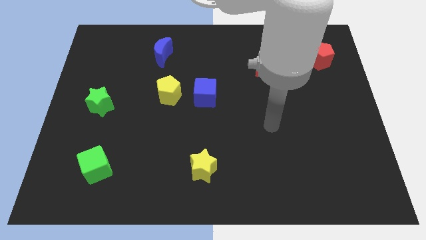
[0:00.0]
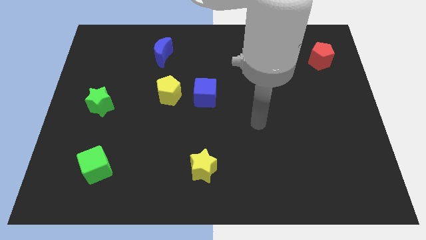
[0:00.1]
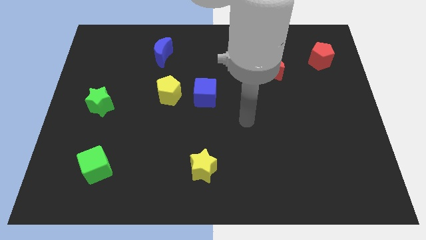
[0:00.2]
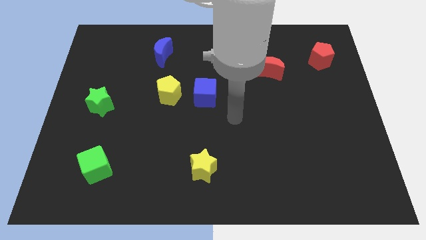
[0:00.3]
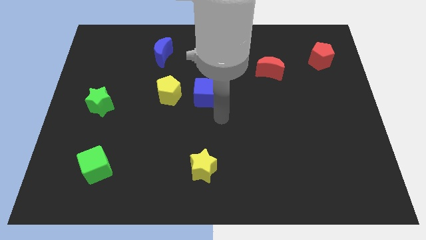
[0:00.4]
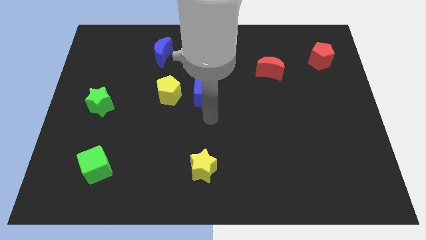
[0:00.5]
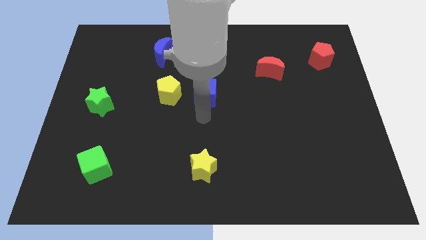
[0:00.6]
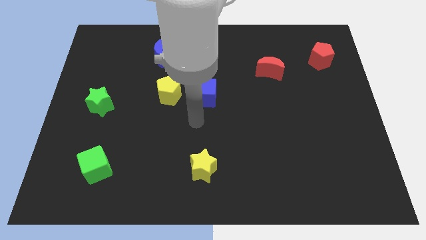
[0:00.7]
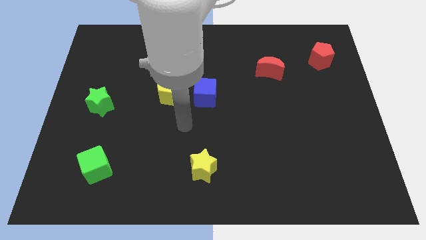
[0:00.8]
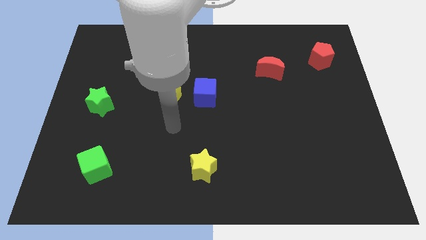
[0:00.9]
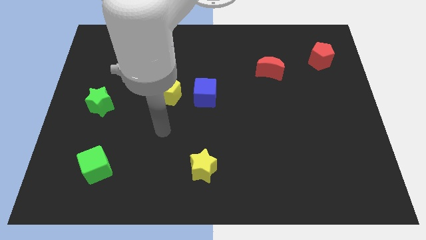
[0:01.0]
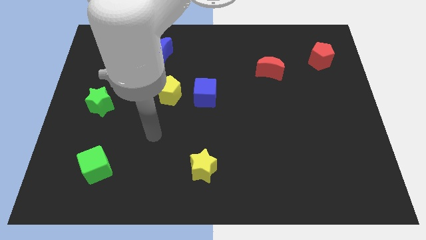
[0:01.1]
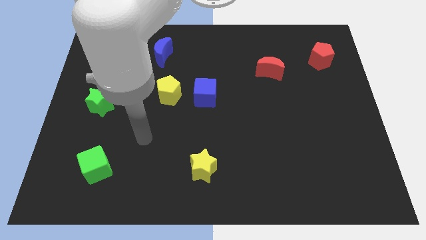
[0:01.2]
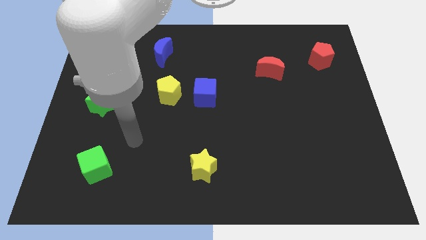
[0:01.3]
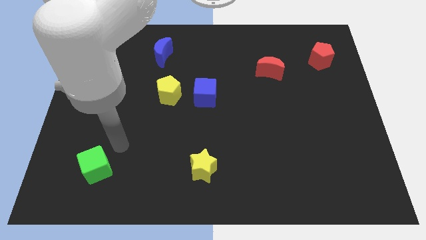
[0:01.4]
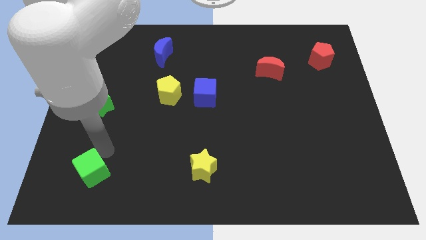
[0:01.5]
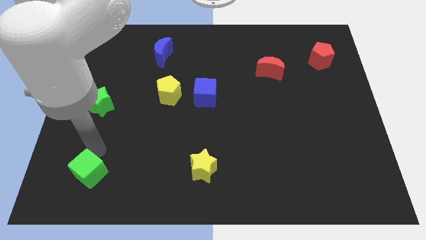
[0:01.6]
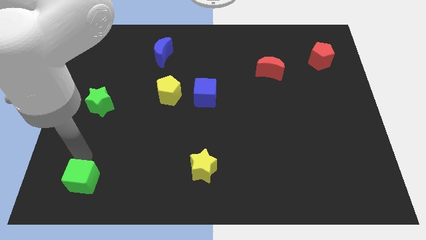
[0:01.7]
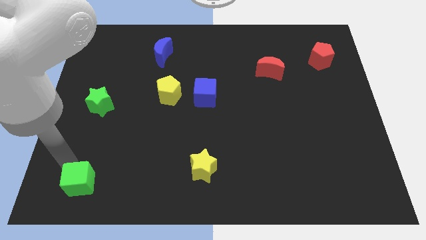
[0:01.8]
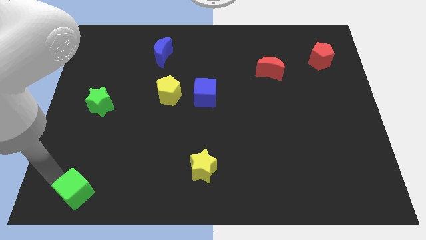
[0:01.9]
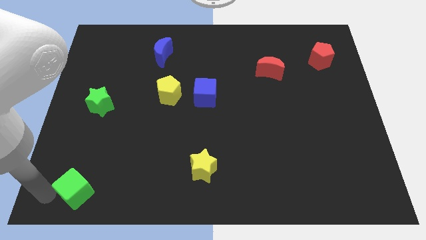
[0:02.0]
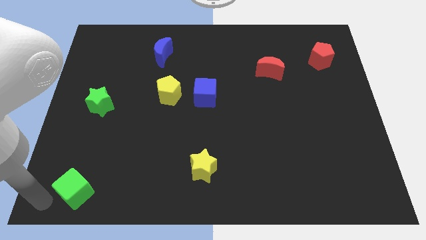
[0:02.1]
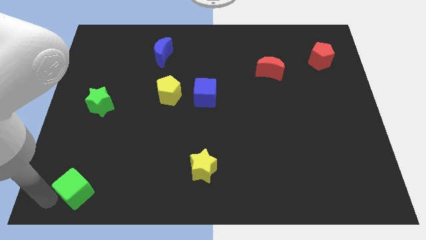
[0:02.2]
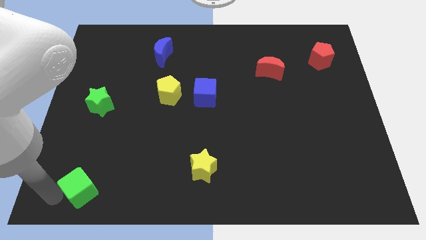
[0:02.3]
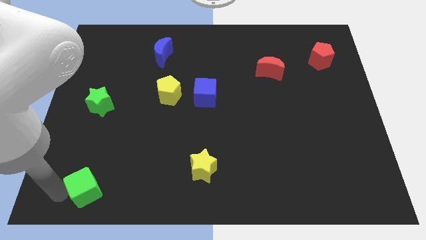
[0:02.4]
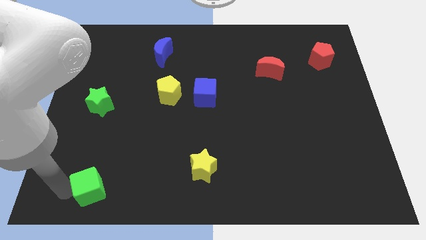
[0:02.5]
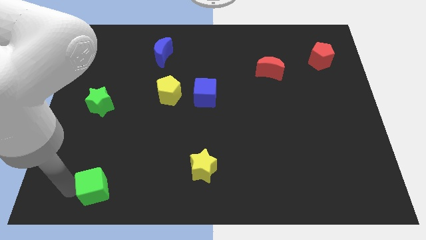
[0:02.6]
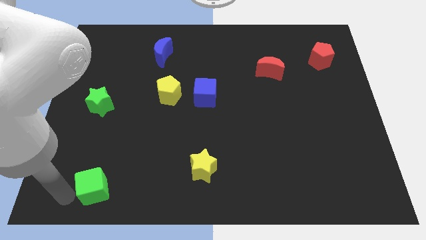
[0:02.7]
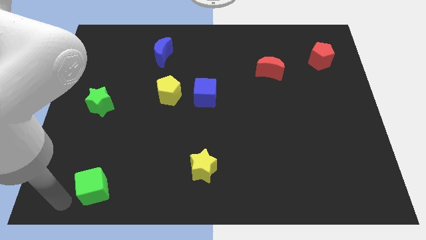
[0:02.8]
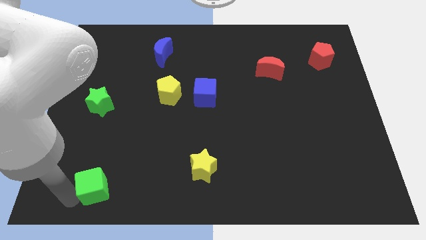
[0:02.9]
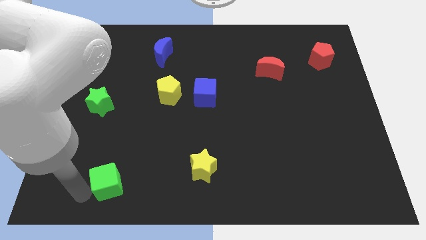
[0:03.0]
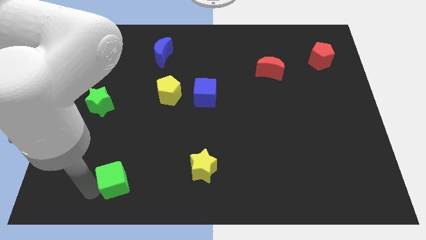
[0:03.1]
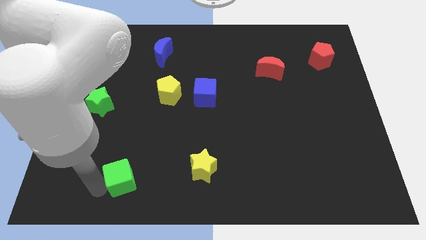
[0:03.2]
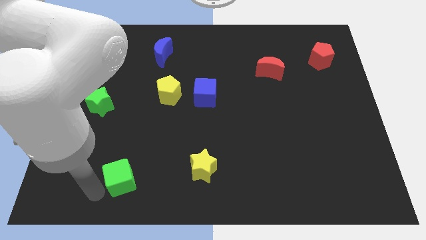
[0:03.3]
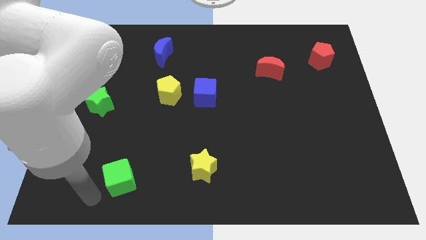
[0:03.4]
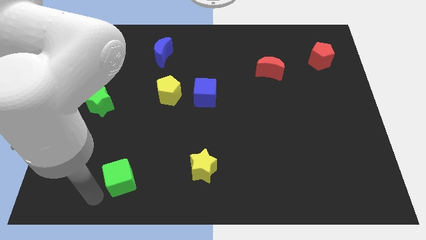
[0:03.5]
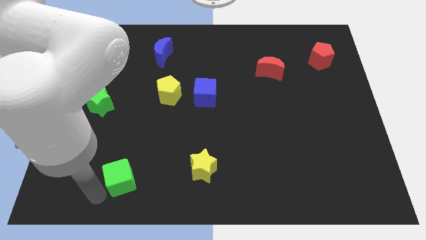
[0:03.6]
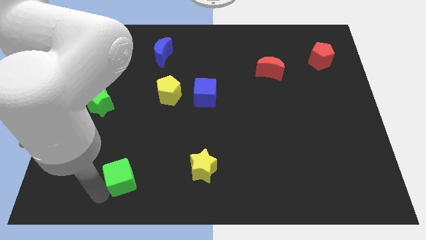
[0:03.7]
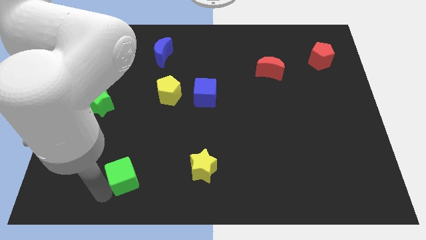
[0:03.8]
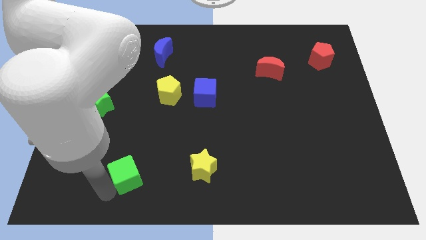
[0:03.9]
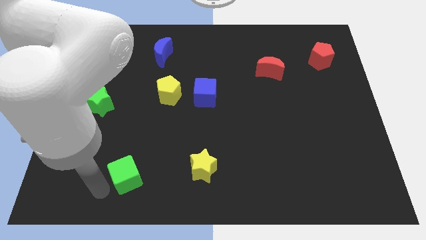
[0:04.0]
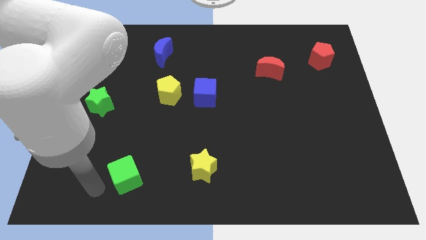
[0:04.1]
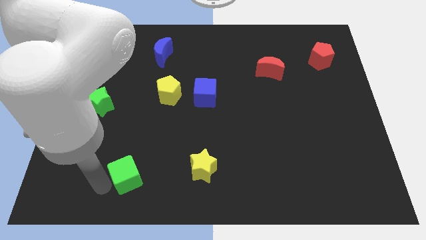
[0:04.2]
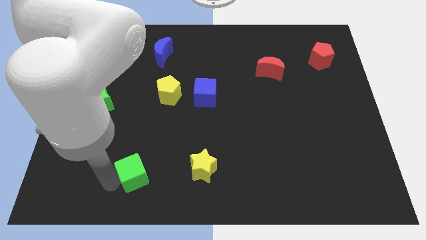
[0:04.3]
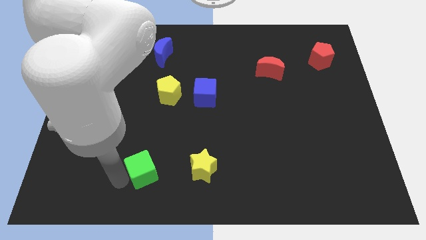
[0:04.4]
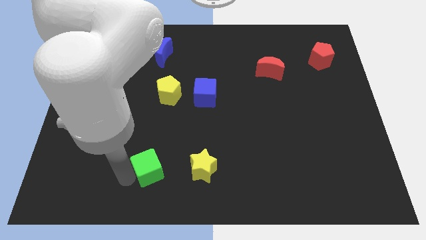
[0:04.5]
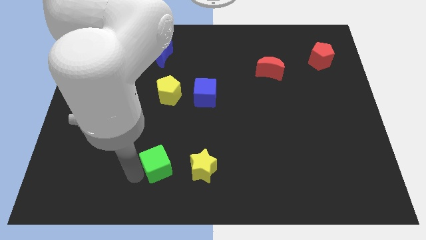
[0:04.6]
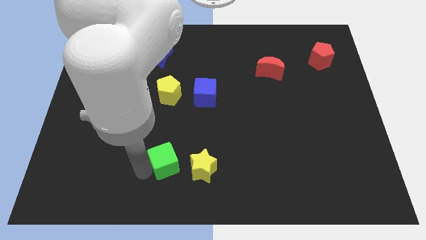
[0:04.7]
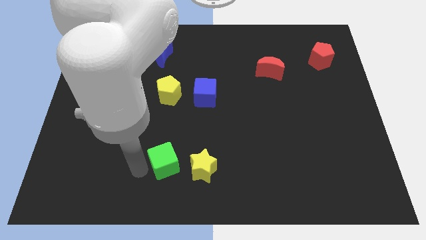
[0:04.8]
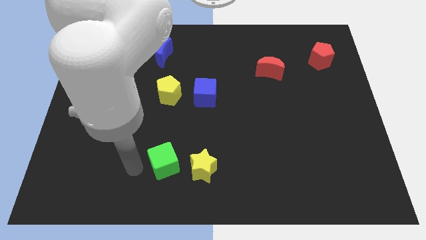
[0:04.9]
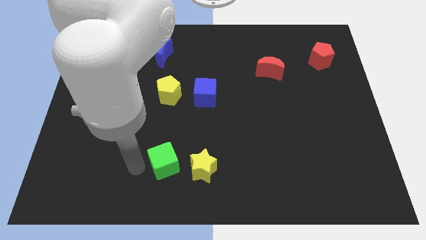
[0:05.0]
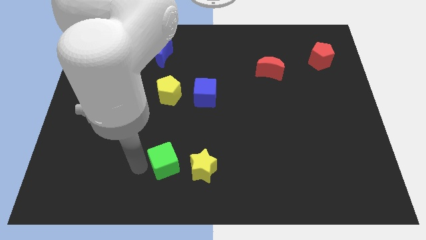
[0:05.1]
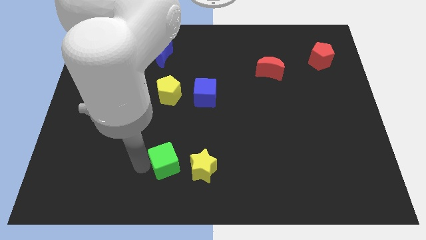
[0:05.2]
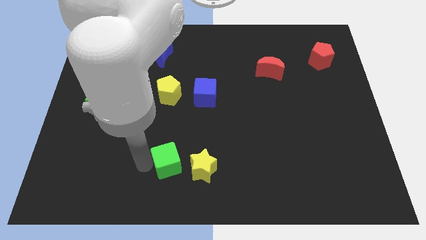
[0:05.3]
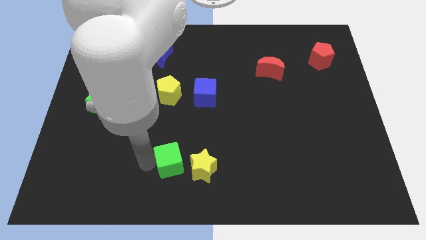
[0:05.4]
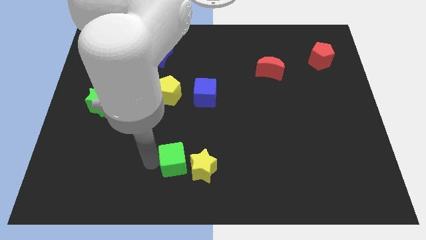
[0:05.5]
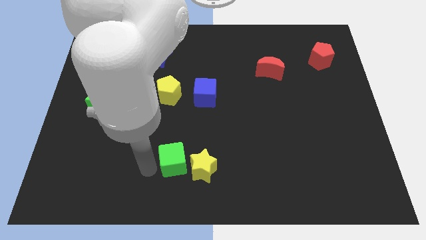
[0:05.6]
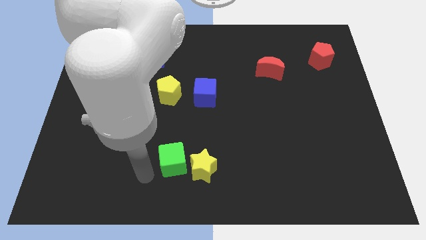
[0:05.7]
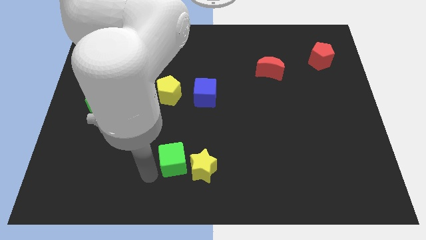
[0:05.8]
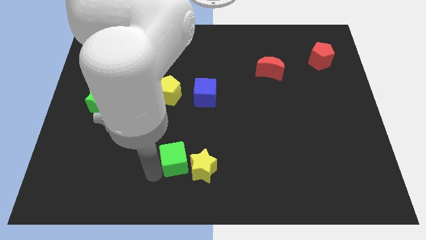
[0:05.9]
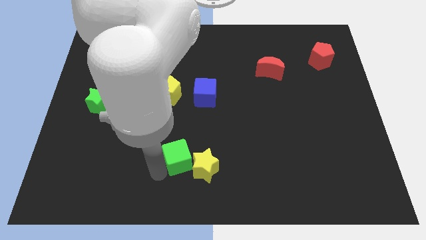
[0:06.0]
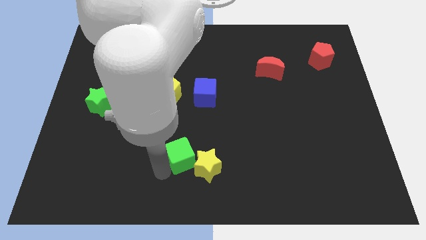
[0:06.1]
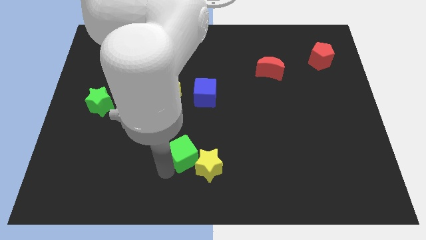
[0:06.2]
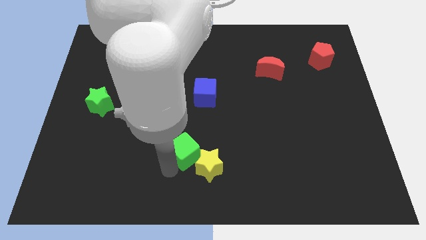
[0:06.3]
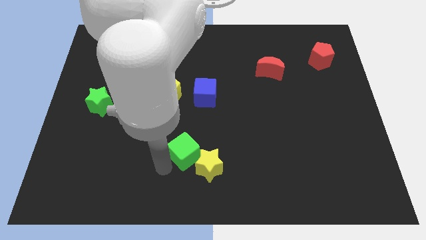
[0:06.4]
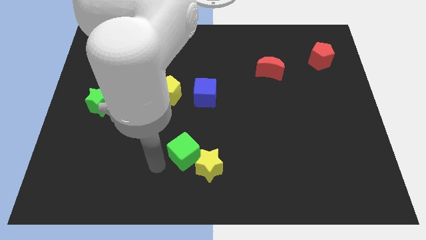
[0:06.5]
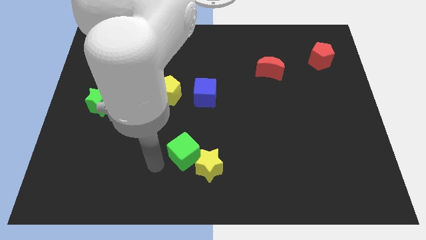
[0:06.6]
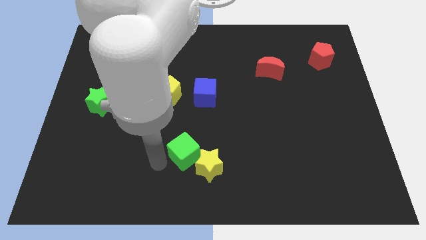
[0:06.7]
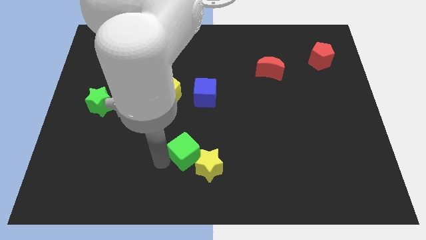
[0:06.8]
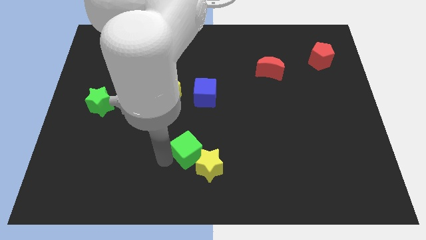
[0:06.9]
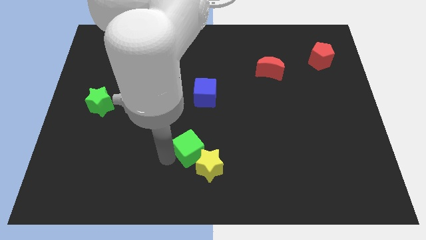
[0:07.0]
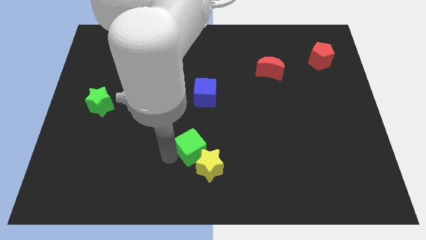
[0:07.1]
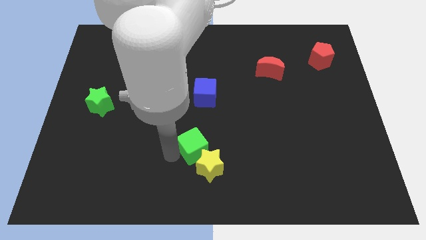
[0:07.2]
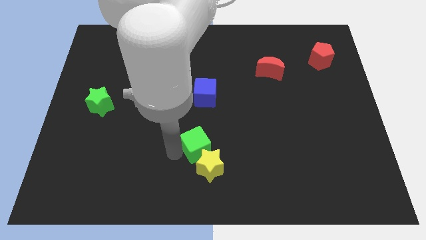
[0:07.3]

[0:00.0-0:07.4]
push the green cube to the right

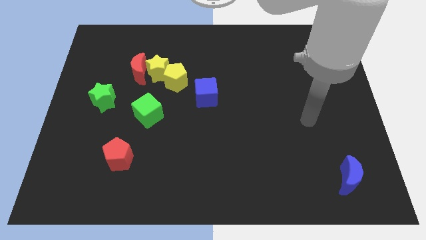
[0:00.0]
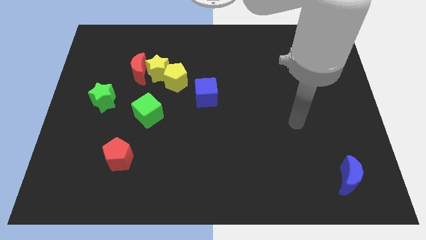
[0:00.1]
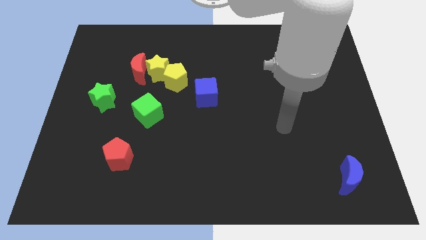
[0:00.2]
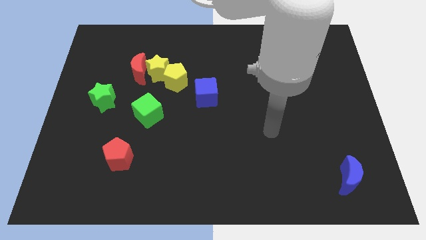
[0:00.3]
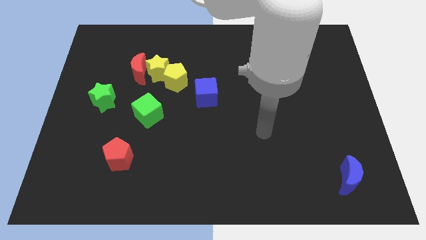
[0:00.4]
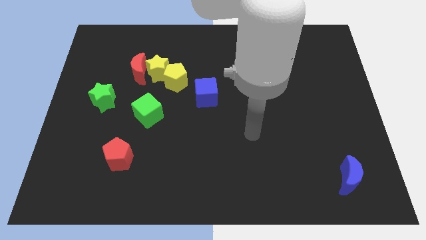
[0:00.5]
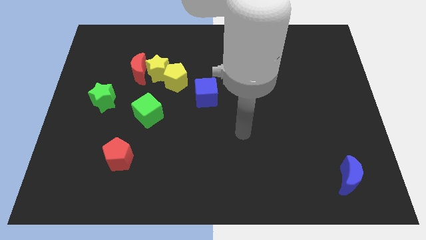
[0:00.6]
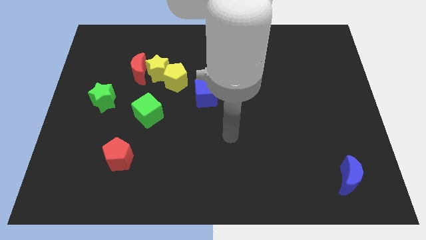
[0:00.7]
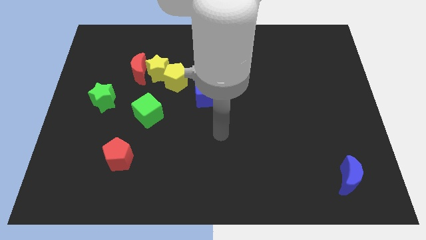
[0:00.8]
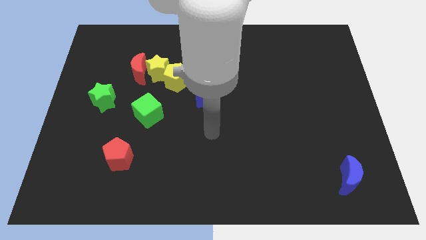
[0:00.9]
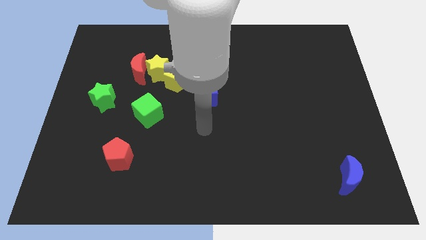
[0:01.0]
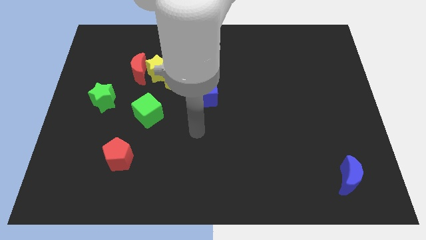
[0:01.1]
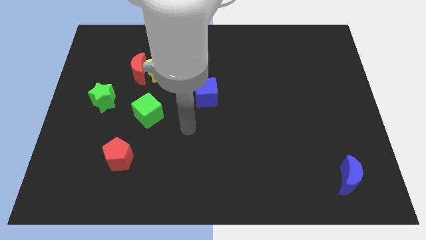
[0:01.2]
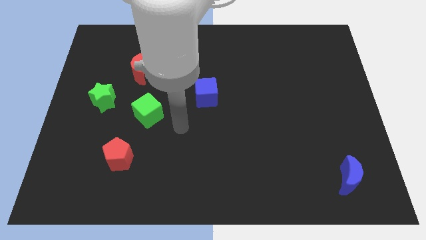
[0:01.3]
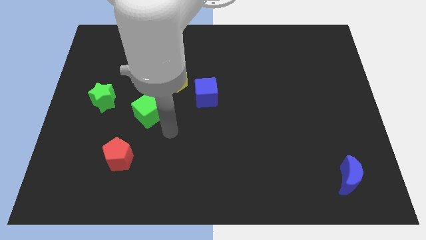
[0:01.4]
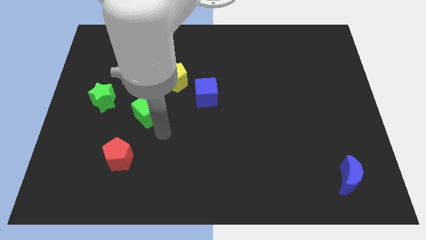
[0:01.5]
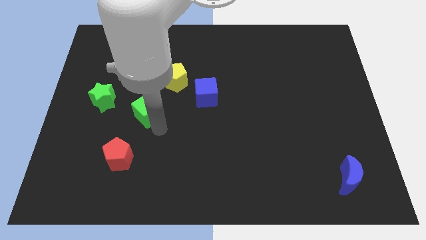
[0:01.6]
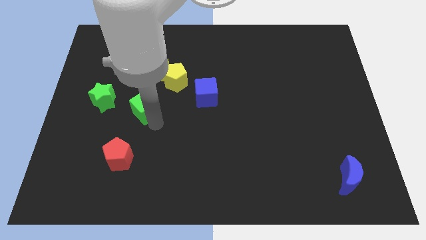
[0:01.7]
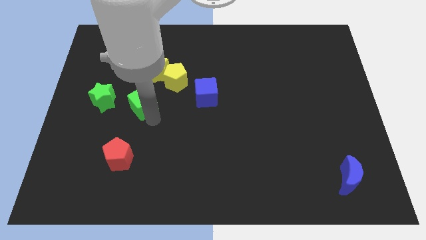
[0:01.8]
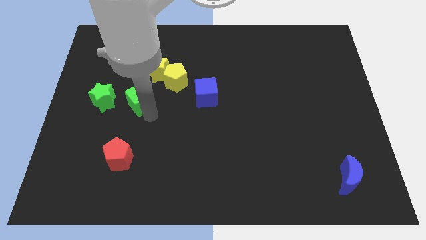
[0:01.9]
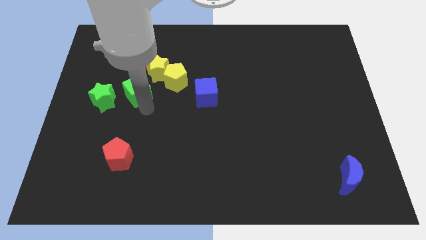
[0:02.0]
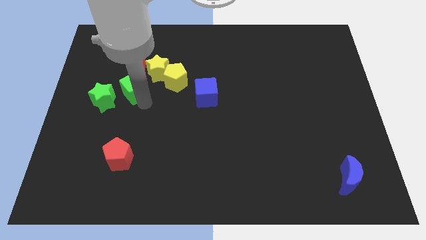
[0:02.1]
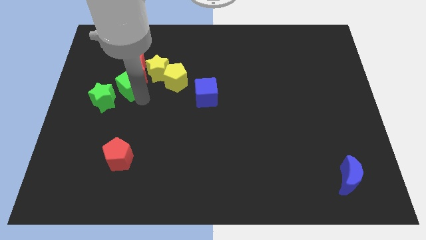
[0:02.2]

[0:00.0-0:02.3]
slide the green cube up slightly
